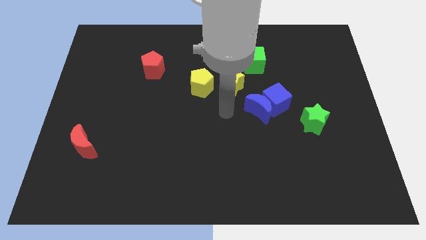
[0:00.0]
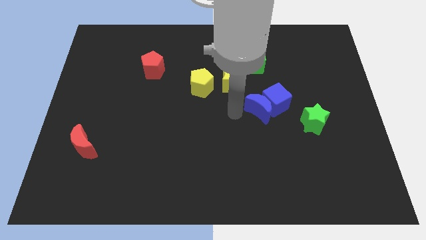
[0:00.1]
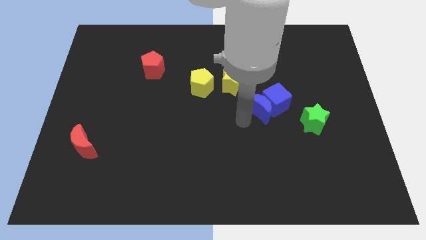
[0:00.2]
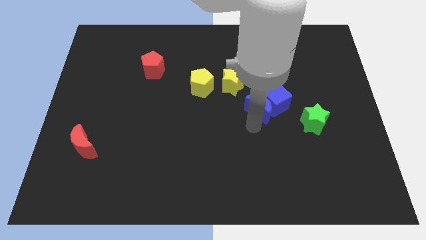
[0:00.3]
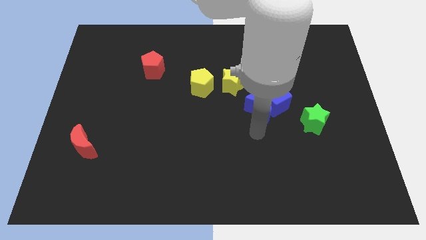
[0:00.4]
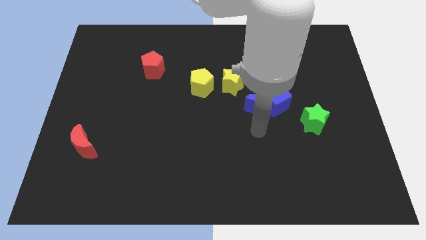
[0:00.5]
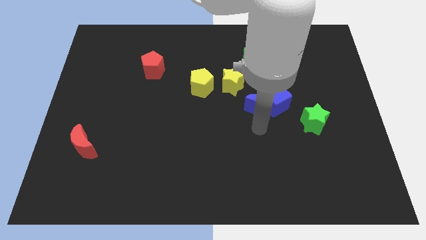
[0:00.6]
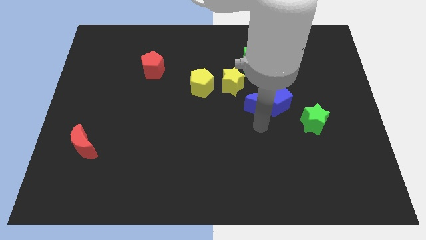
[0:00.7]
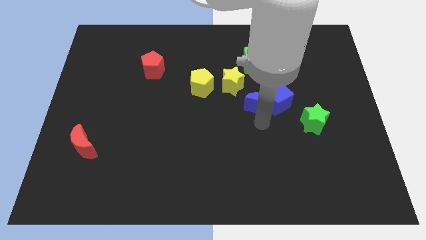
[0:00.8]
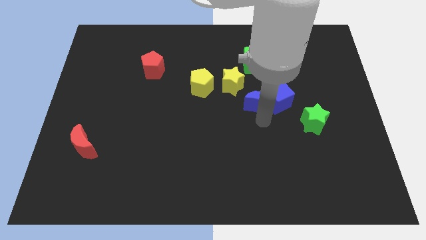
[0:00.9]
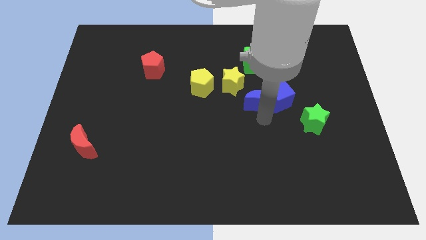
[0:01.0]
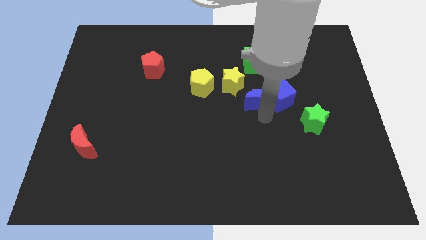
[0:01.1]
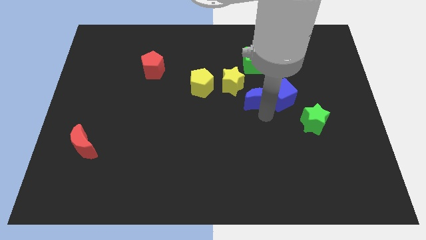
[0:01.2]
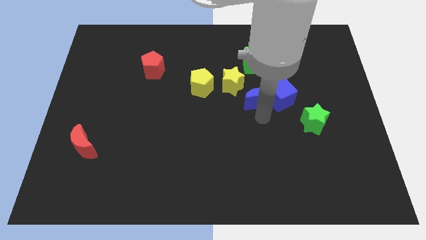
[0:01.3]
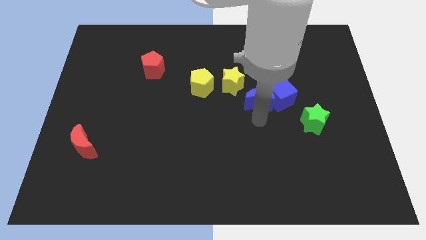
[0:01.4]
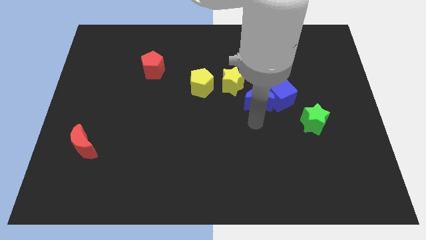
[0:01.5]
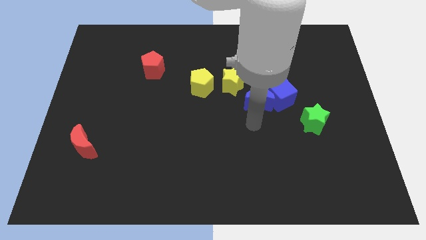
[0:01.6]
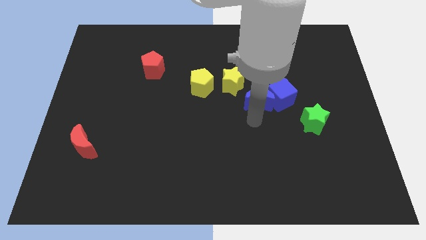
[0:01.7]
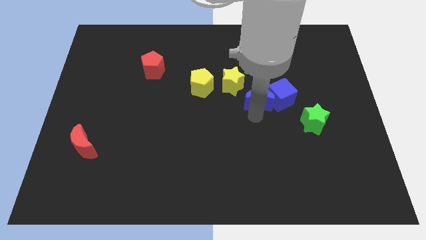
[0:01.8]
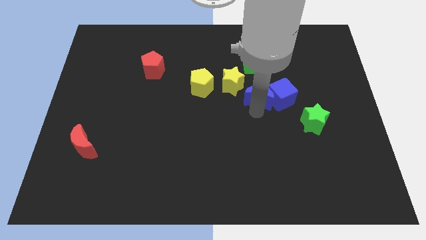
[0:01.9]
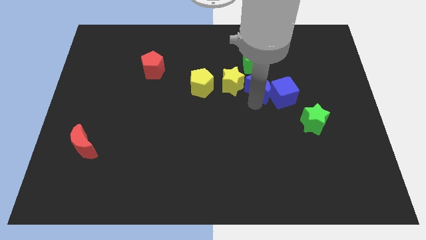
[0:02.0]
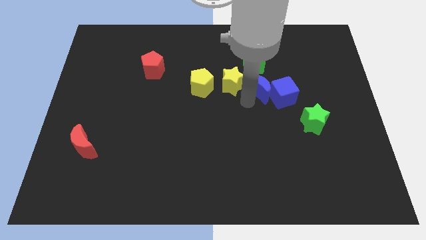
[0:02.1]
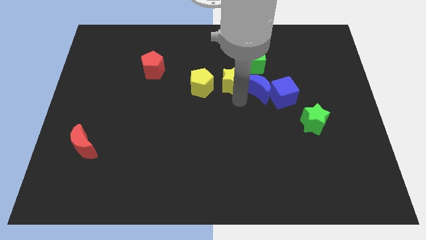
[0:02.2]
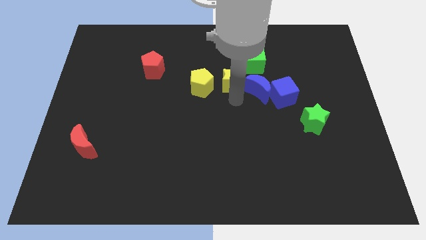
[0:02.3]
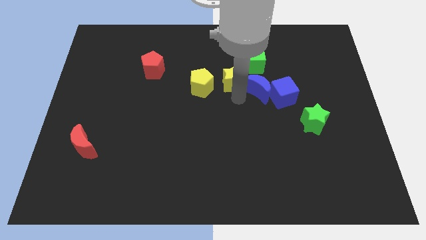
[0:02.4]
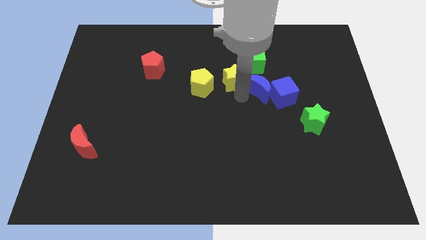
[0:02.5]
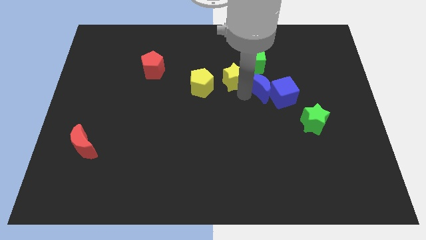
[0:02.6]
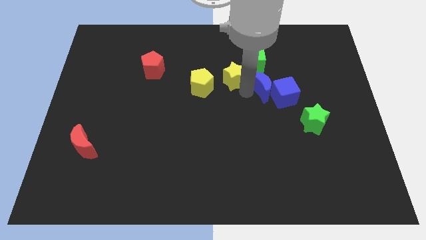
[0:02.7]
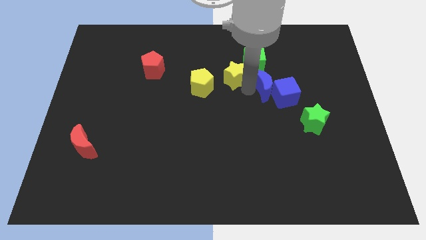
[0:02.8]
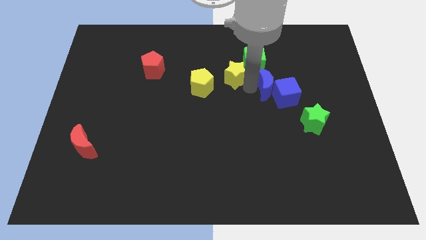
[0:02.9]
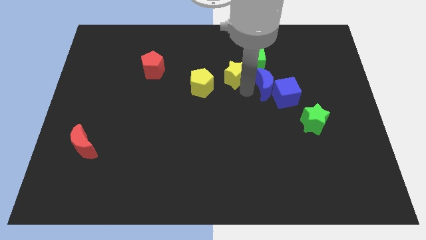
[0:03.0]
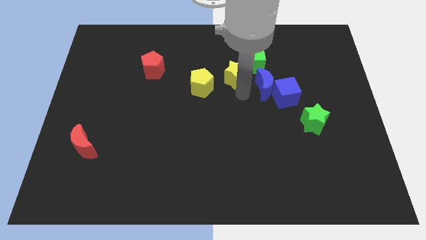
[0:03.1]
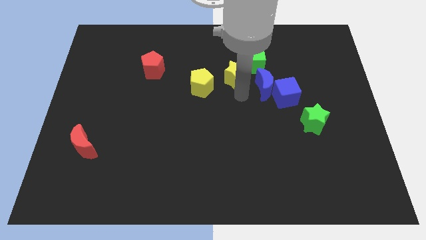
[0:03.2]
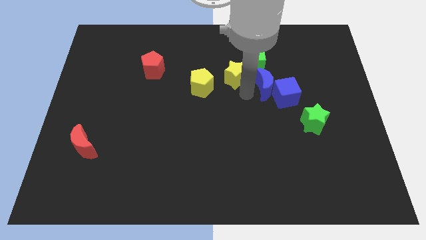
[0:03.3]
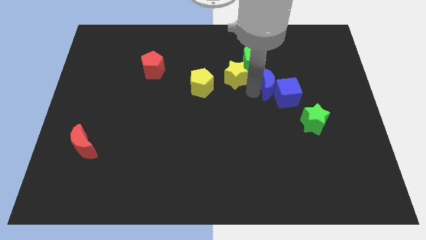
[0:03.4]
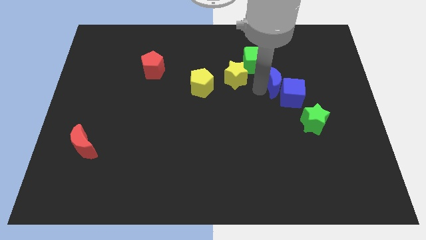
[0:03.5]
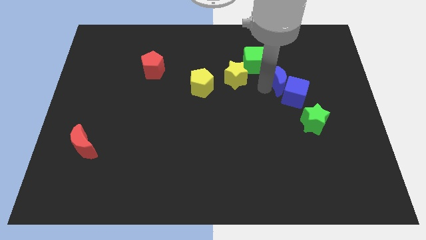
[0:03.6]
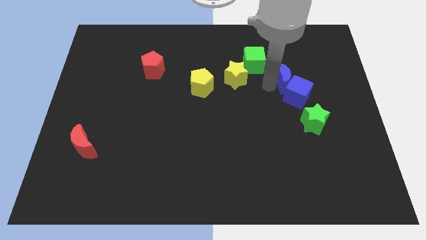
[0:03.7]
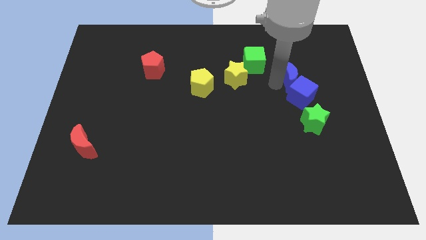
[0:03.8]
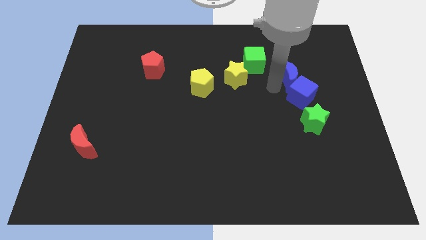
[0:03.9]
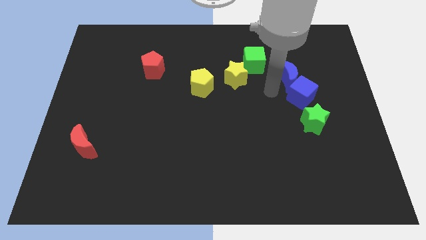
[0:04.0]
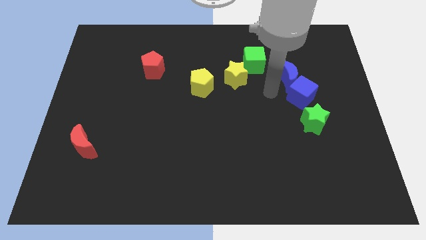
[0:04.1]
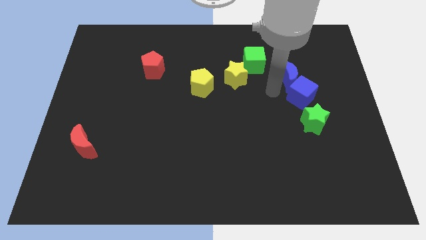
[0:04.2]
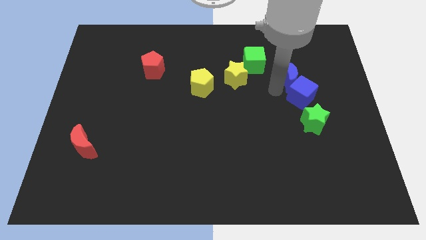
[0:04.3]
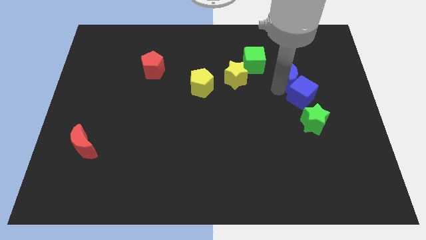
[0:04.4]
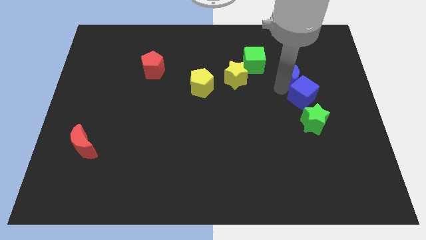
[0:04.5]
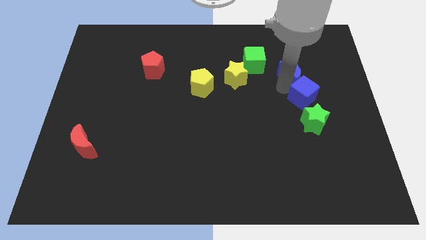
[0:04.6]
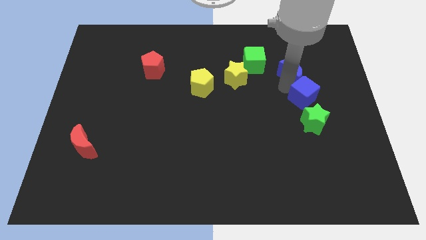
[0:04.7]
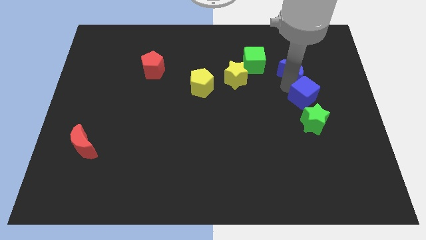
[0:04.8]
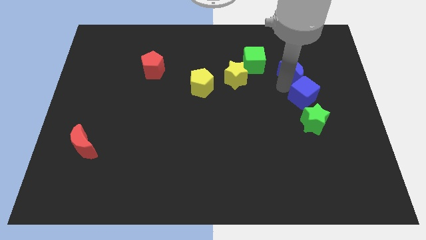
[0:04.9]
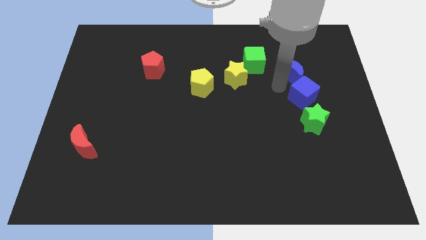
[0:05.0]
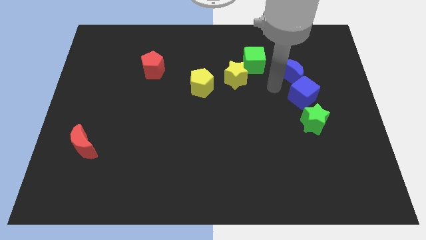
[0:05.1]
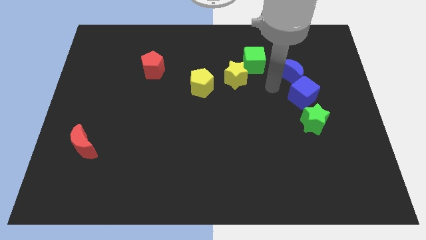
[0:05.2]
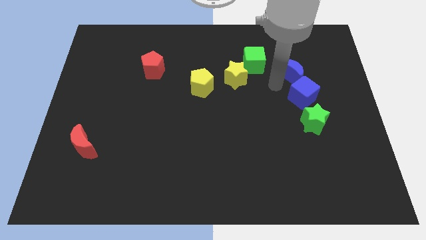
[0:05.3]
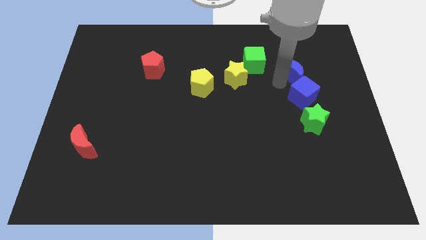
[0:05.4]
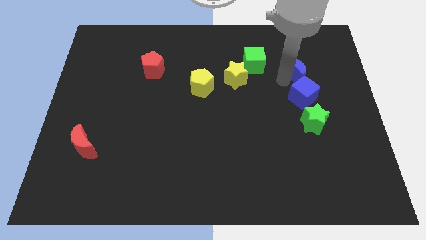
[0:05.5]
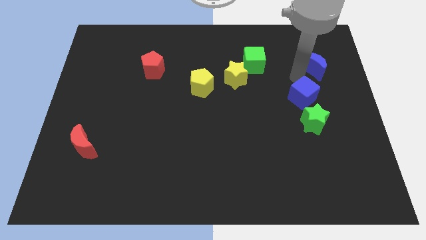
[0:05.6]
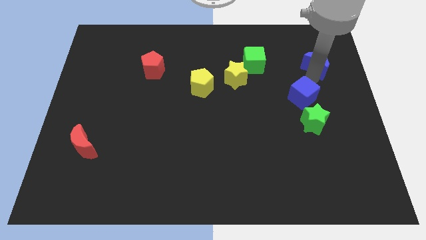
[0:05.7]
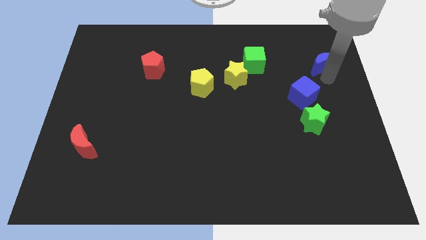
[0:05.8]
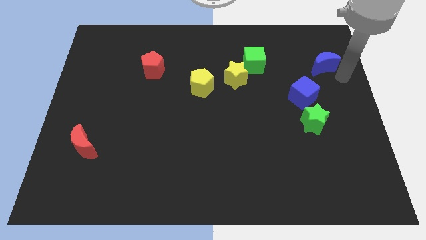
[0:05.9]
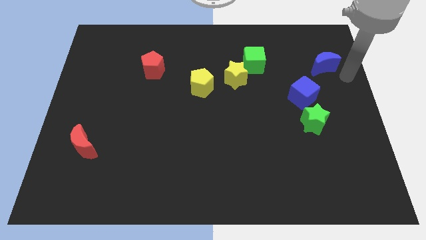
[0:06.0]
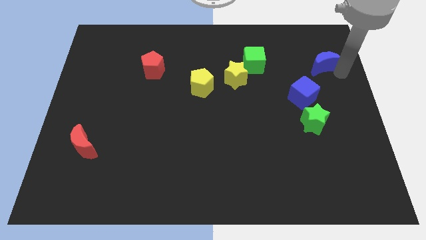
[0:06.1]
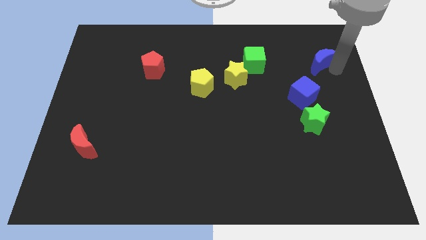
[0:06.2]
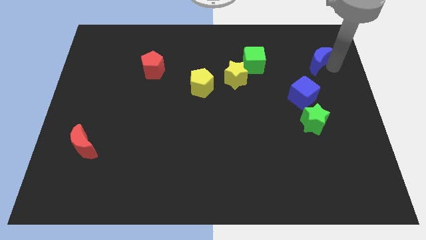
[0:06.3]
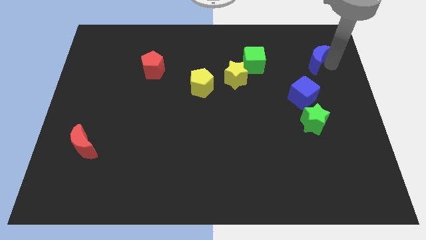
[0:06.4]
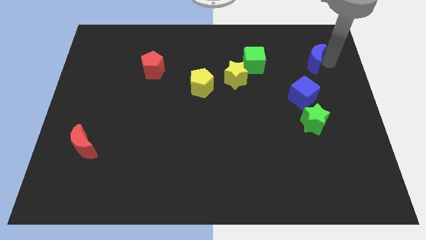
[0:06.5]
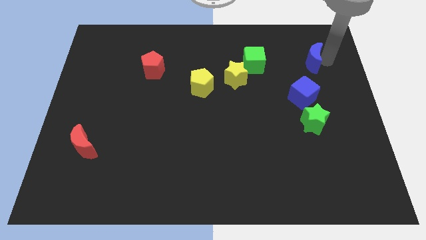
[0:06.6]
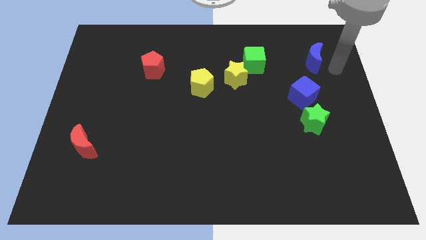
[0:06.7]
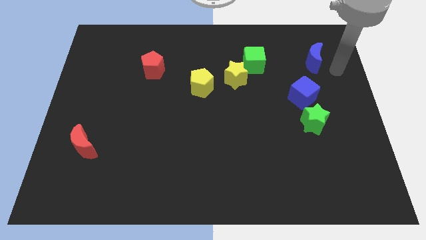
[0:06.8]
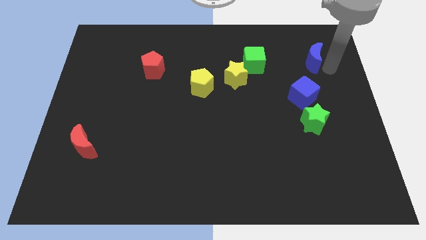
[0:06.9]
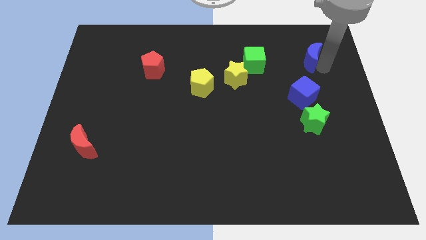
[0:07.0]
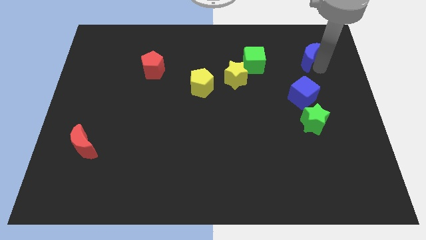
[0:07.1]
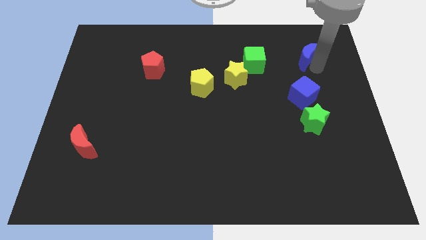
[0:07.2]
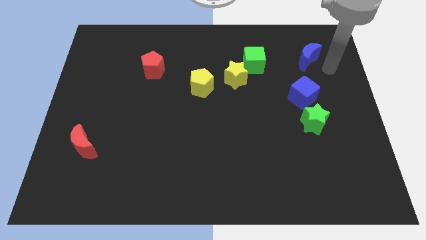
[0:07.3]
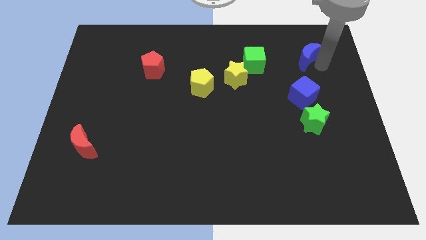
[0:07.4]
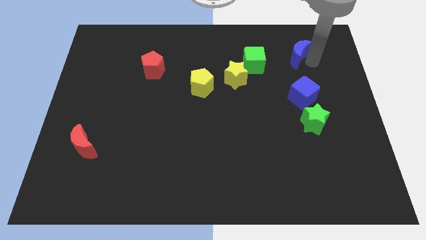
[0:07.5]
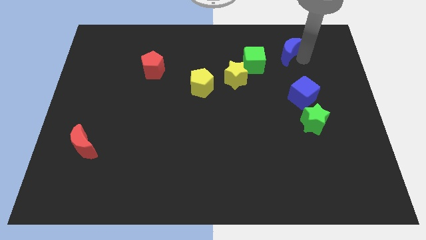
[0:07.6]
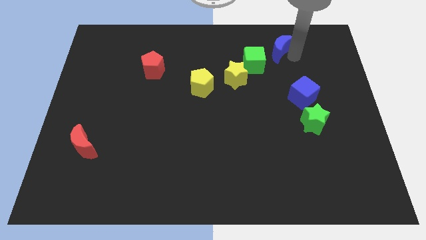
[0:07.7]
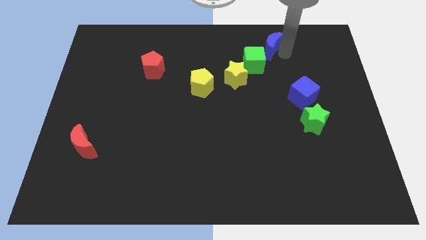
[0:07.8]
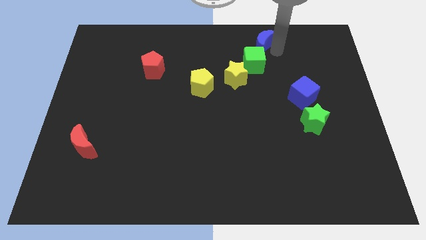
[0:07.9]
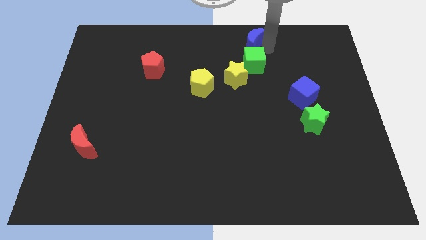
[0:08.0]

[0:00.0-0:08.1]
slide the blue moon to the towards your base
